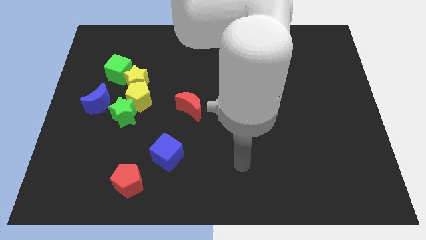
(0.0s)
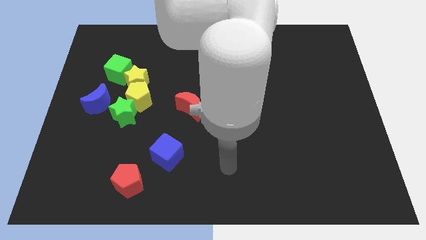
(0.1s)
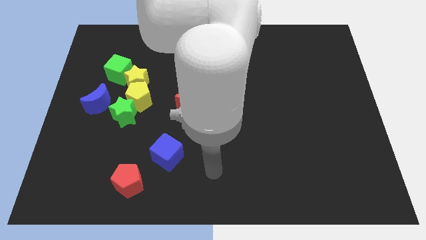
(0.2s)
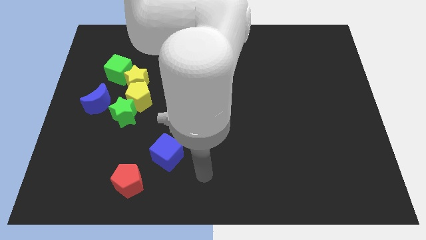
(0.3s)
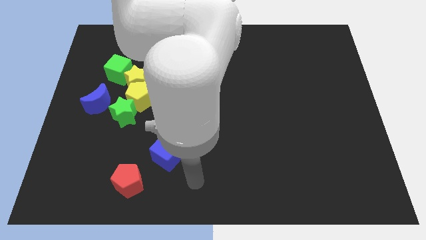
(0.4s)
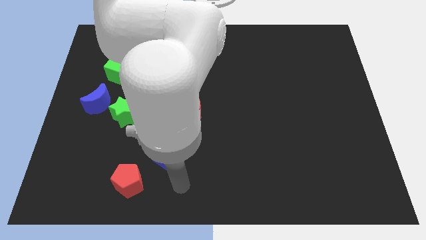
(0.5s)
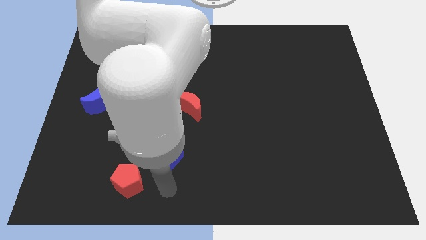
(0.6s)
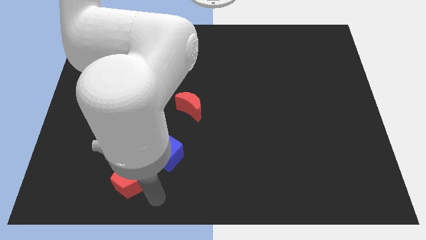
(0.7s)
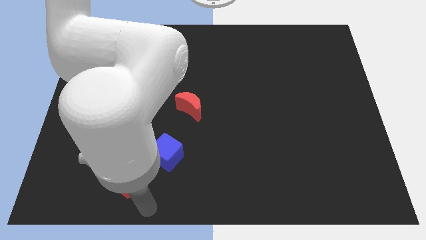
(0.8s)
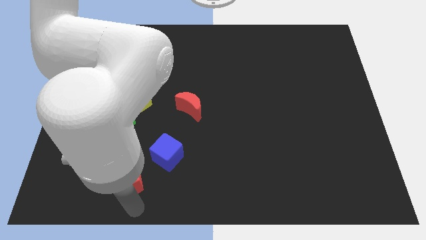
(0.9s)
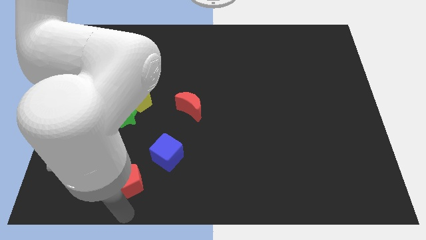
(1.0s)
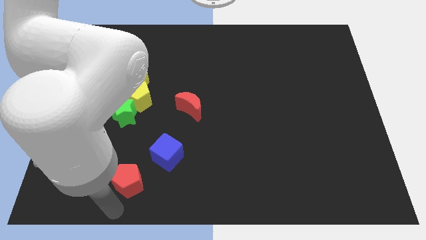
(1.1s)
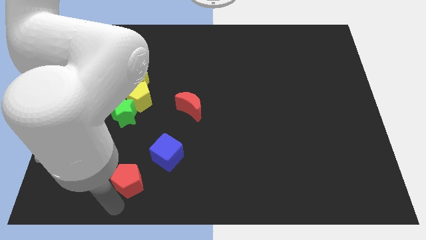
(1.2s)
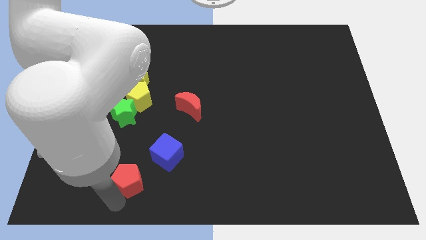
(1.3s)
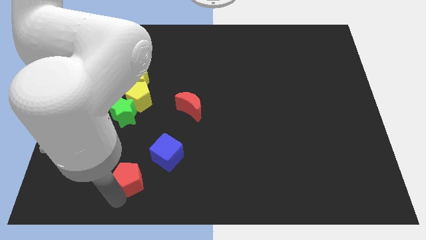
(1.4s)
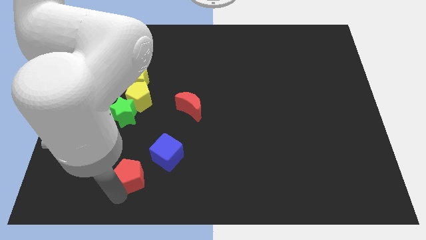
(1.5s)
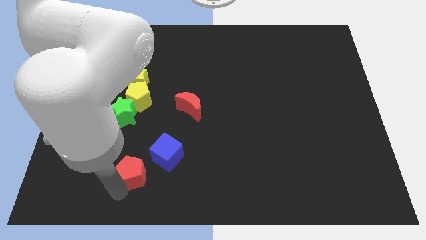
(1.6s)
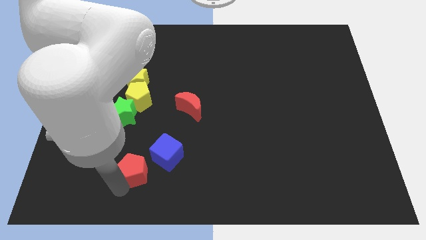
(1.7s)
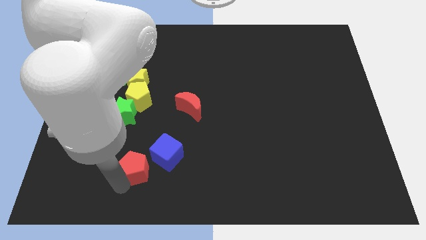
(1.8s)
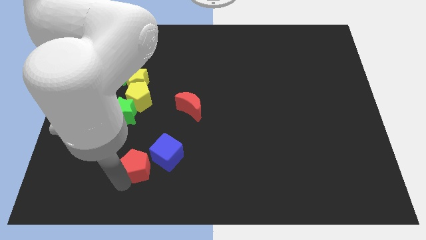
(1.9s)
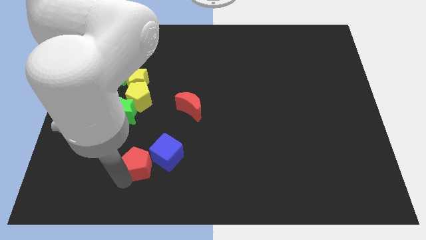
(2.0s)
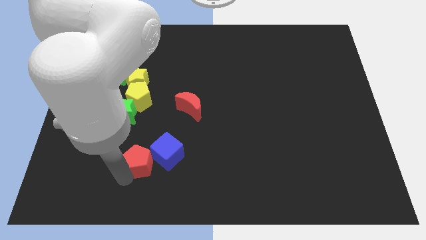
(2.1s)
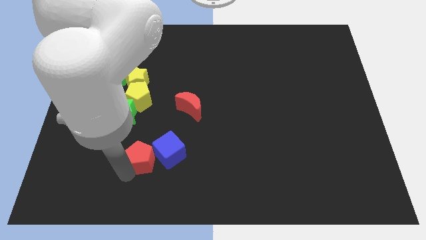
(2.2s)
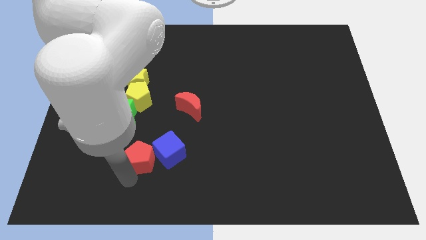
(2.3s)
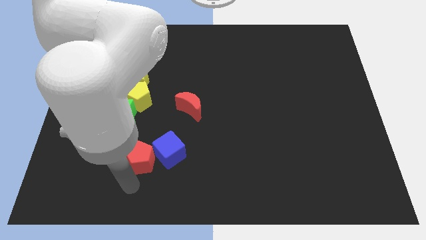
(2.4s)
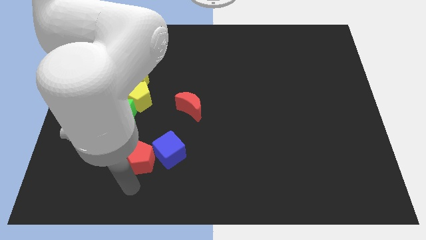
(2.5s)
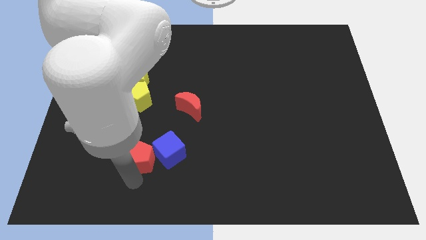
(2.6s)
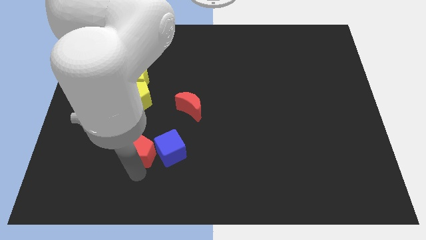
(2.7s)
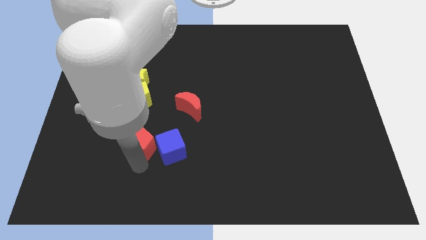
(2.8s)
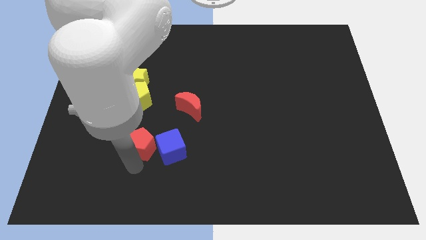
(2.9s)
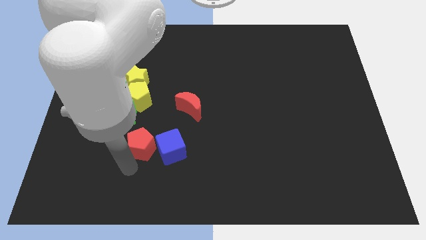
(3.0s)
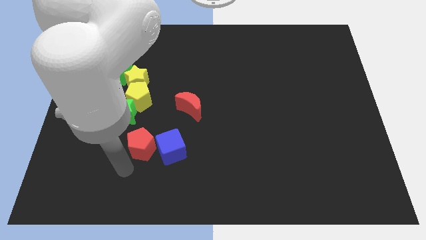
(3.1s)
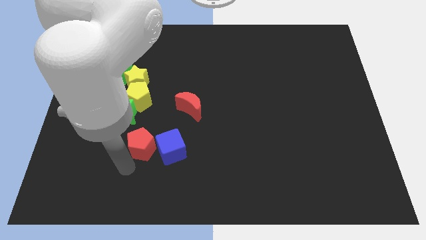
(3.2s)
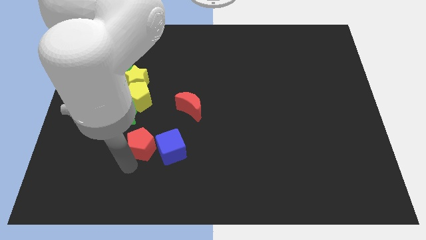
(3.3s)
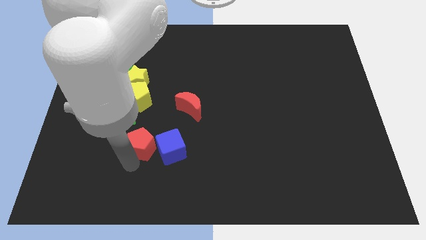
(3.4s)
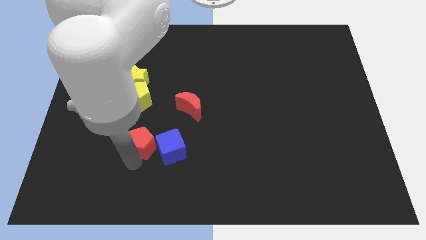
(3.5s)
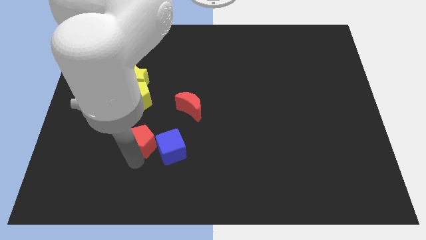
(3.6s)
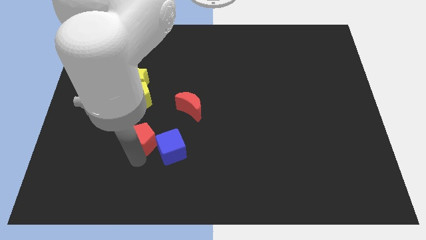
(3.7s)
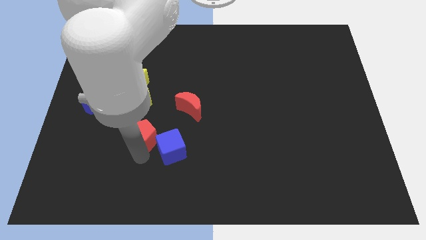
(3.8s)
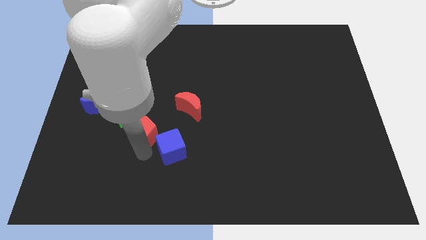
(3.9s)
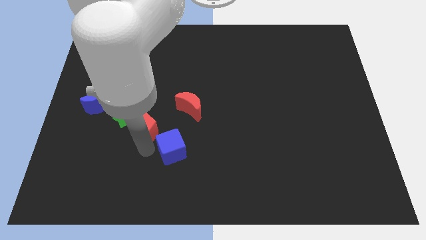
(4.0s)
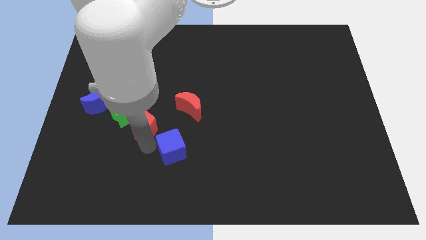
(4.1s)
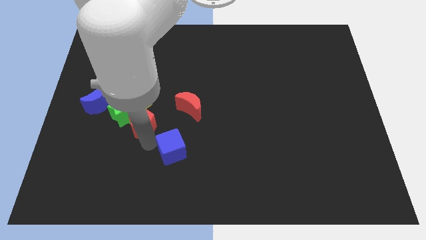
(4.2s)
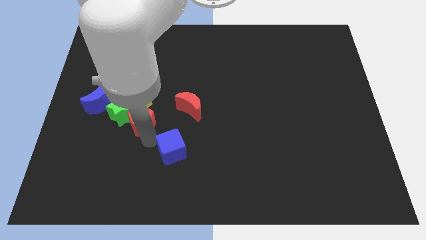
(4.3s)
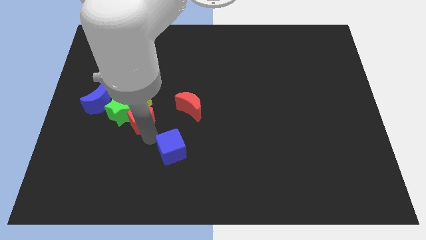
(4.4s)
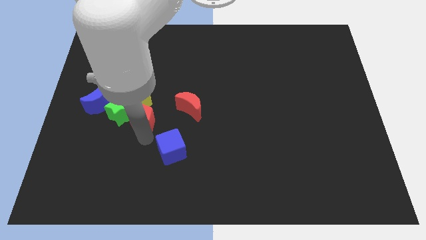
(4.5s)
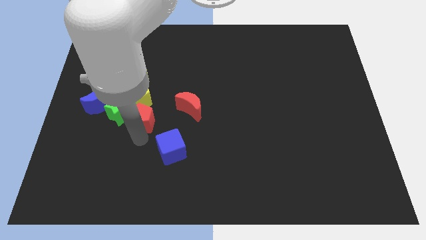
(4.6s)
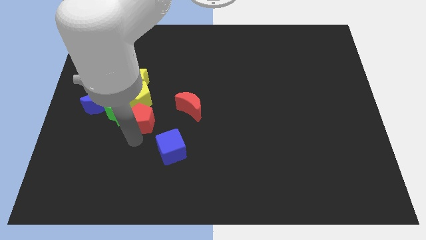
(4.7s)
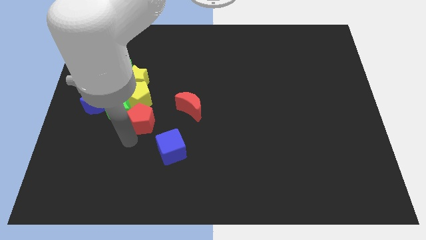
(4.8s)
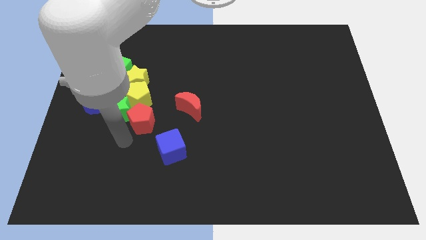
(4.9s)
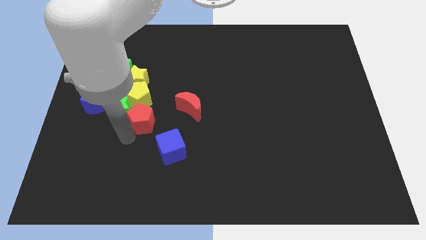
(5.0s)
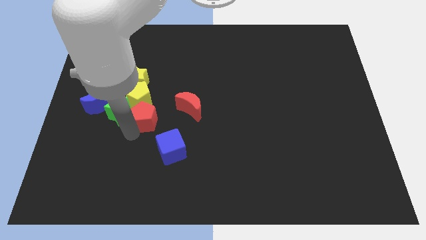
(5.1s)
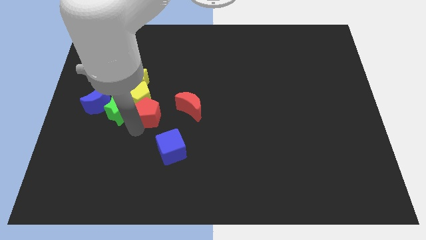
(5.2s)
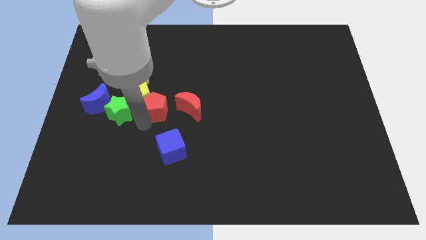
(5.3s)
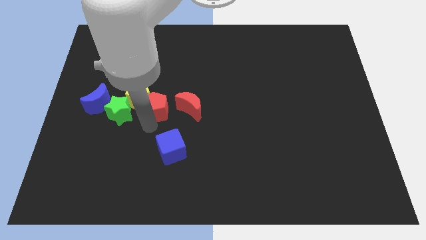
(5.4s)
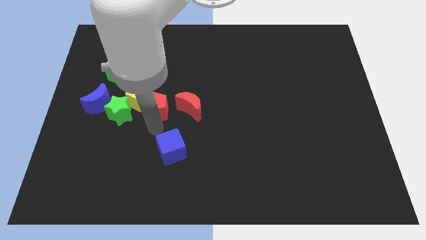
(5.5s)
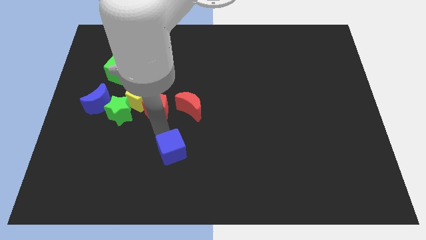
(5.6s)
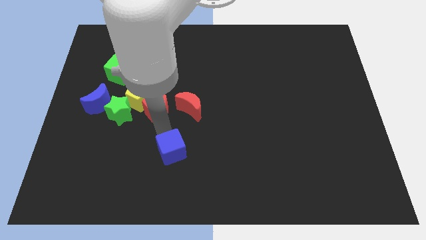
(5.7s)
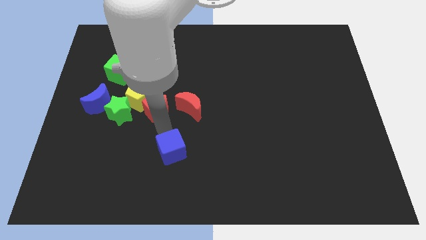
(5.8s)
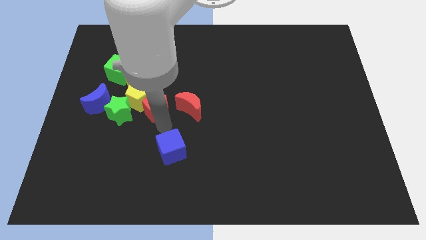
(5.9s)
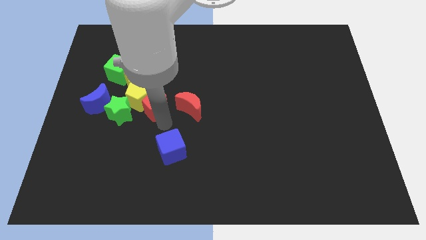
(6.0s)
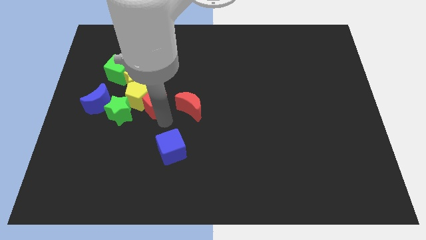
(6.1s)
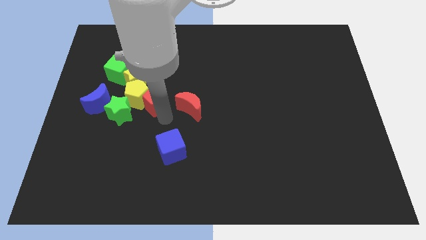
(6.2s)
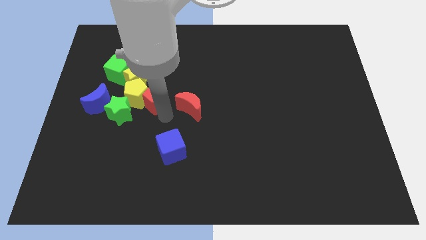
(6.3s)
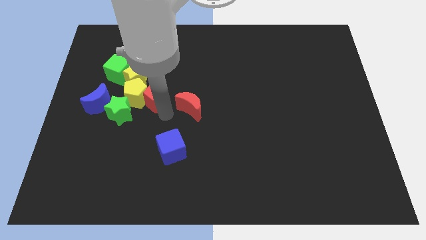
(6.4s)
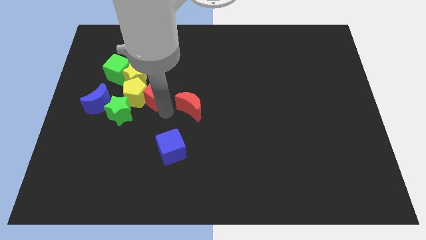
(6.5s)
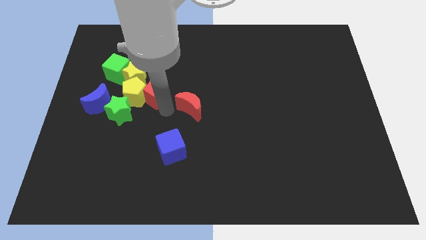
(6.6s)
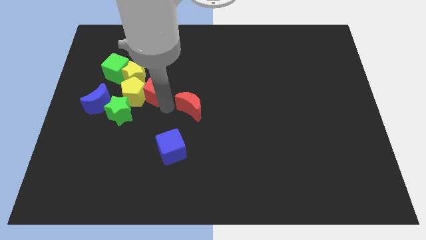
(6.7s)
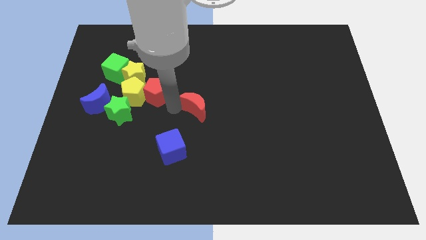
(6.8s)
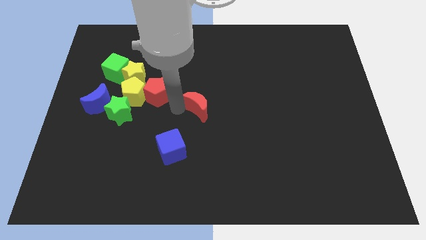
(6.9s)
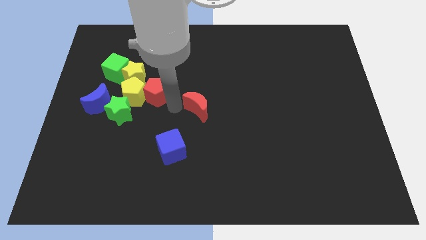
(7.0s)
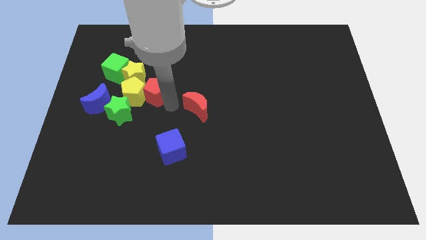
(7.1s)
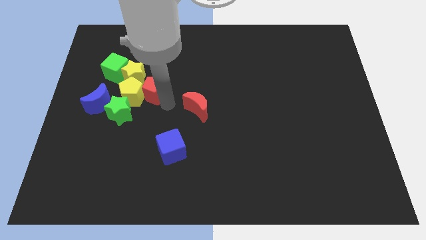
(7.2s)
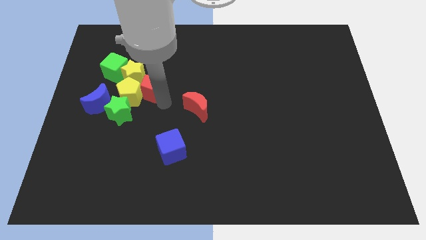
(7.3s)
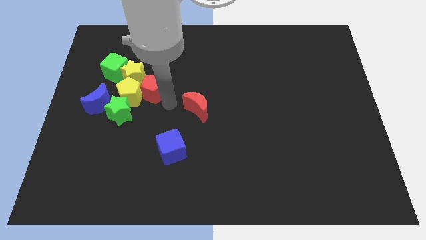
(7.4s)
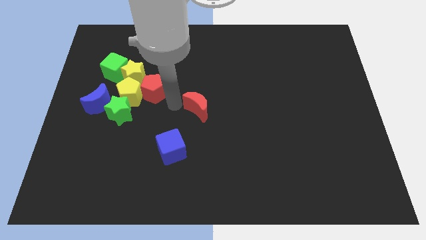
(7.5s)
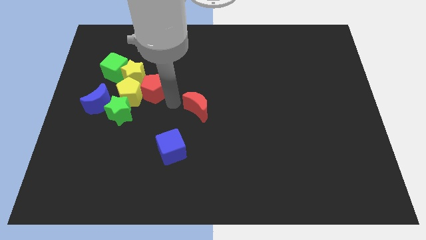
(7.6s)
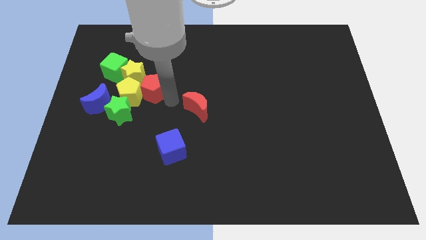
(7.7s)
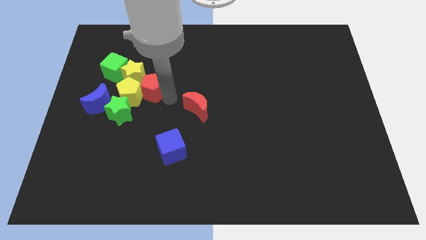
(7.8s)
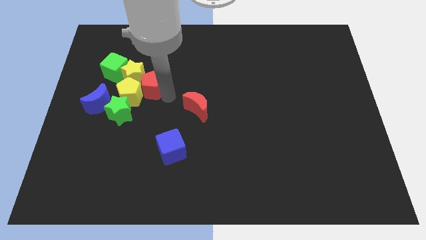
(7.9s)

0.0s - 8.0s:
slide the red pentagon to the yellow star

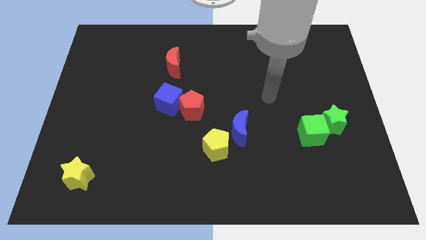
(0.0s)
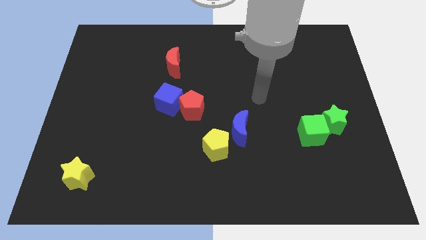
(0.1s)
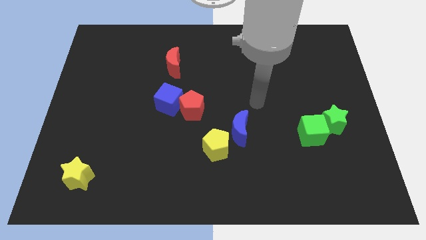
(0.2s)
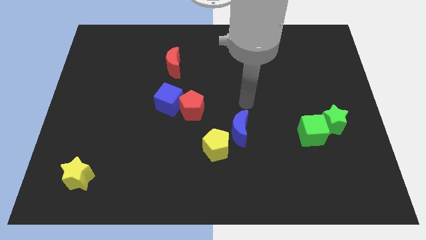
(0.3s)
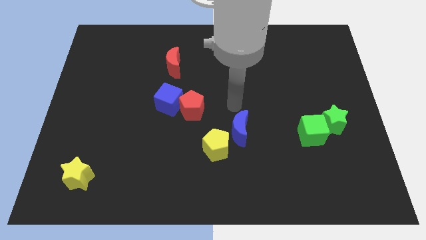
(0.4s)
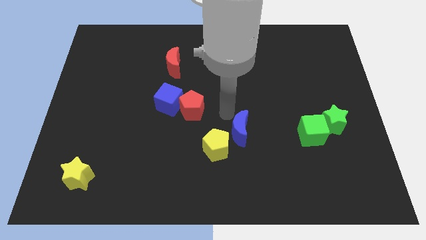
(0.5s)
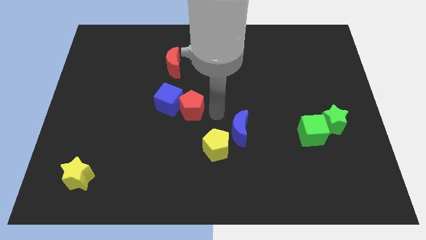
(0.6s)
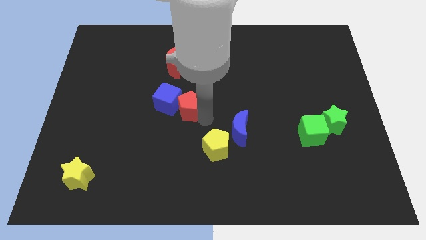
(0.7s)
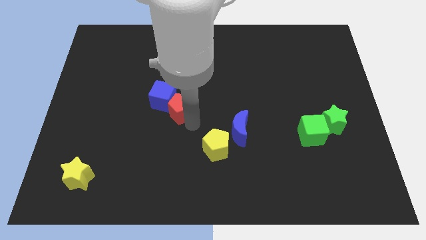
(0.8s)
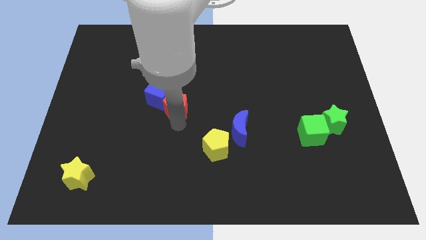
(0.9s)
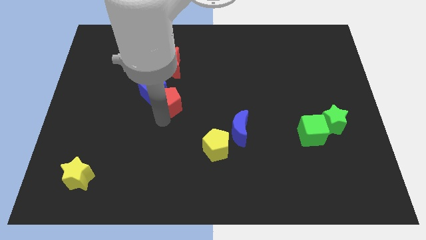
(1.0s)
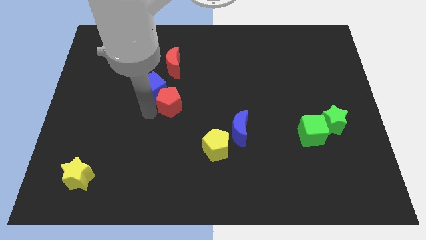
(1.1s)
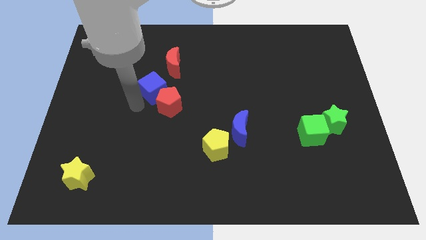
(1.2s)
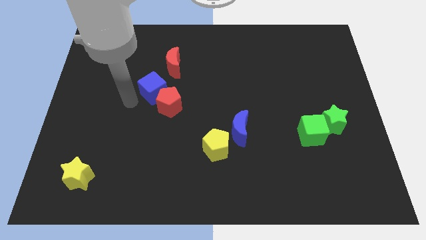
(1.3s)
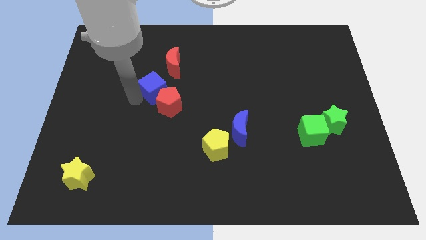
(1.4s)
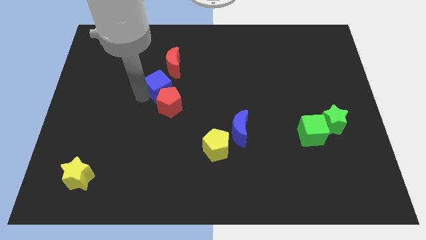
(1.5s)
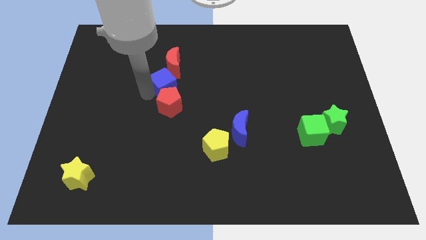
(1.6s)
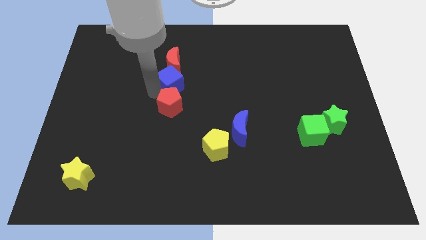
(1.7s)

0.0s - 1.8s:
push the blue cube to the red moon
